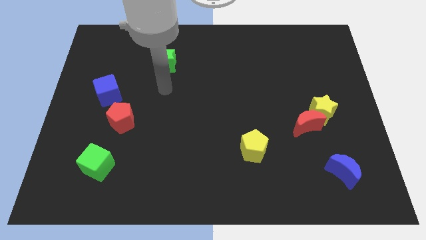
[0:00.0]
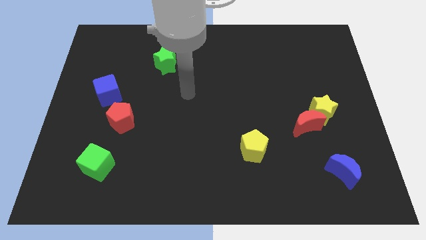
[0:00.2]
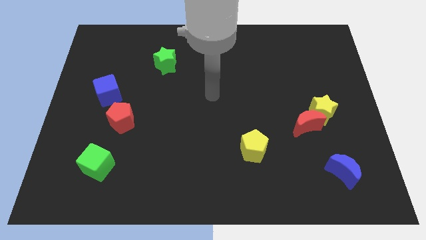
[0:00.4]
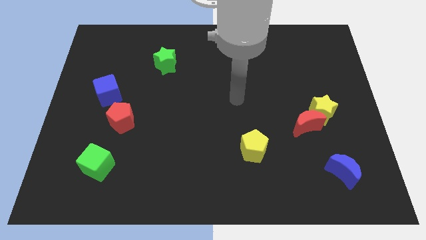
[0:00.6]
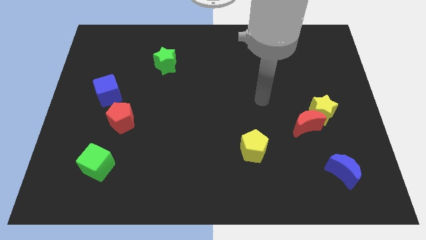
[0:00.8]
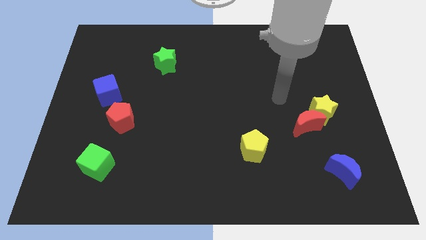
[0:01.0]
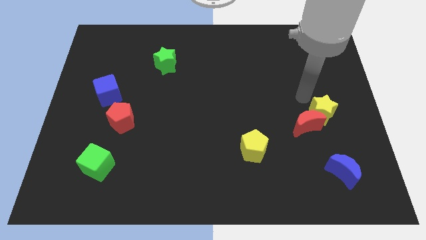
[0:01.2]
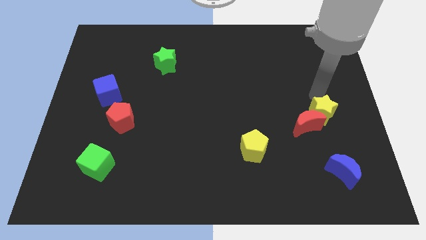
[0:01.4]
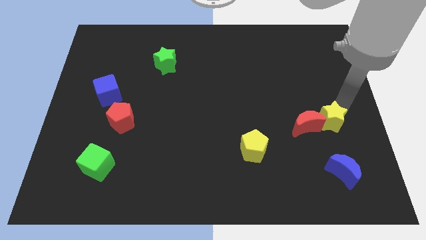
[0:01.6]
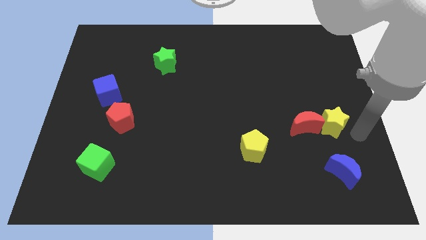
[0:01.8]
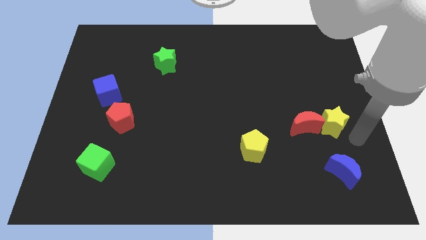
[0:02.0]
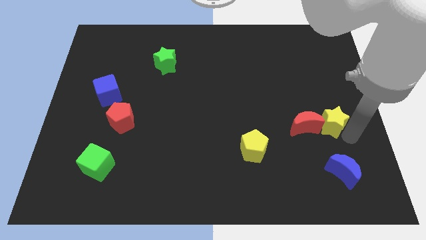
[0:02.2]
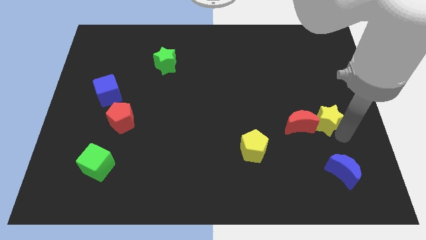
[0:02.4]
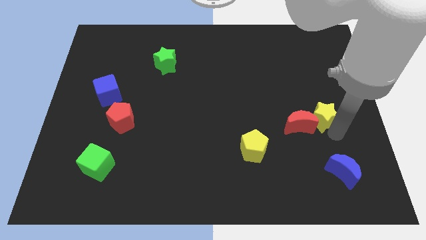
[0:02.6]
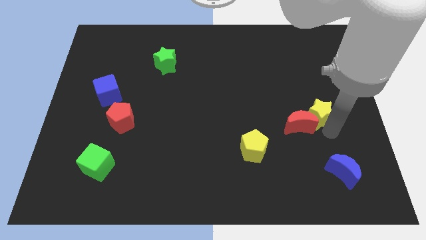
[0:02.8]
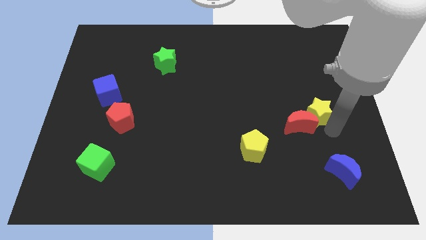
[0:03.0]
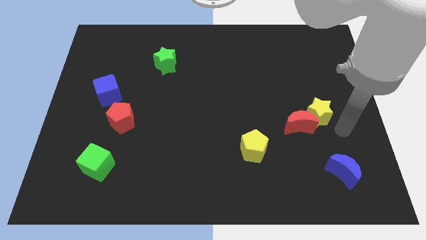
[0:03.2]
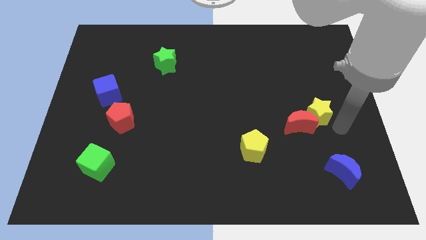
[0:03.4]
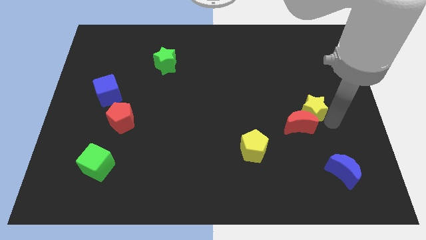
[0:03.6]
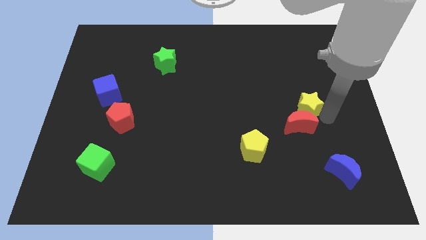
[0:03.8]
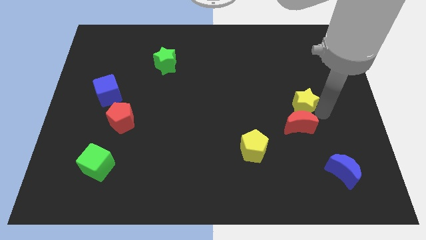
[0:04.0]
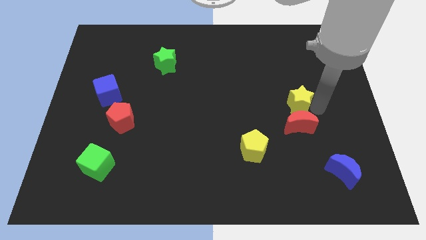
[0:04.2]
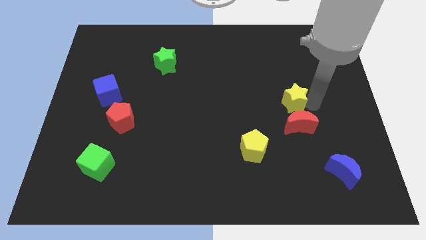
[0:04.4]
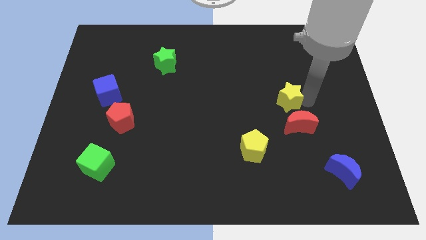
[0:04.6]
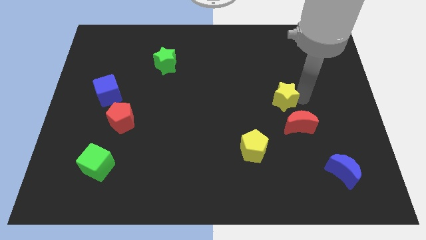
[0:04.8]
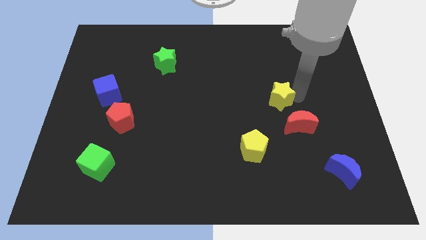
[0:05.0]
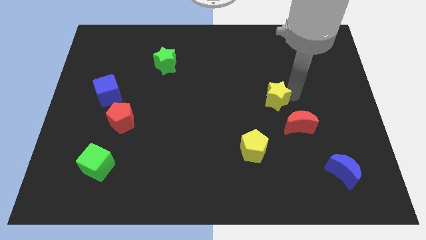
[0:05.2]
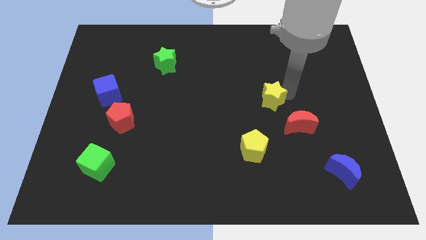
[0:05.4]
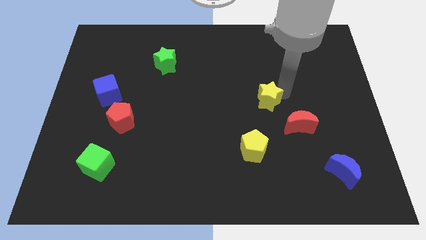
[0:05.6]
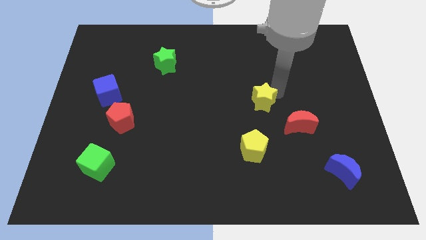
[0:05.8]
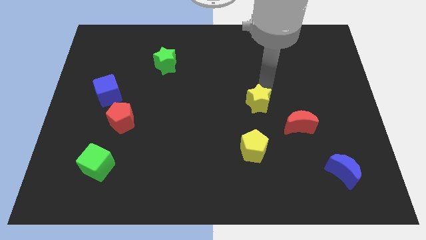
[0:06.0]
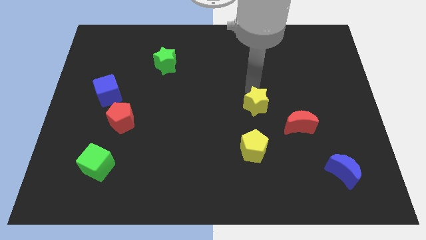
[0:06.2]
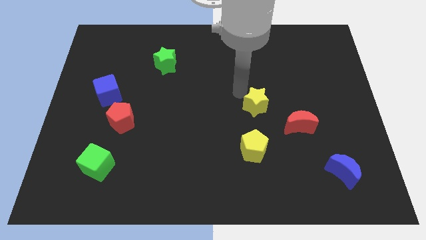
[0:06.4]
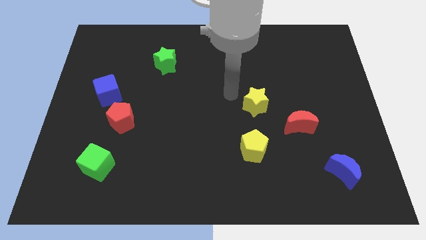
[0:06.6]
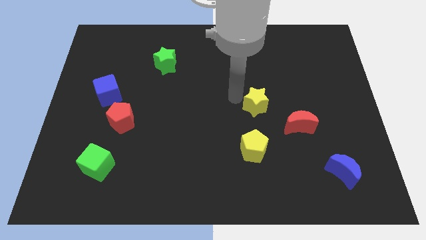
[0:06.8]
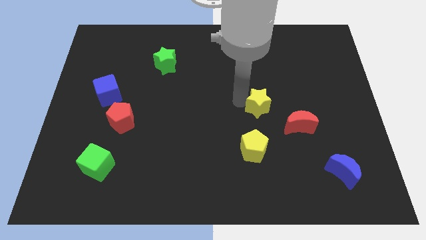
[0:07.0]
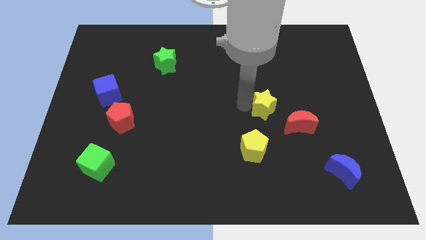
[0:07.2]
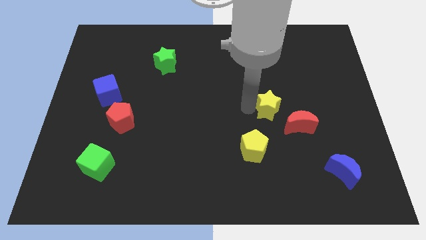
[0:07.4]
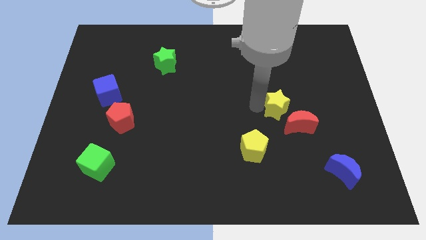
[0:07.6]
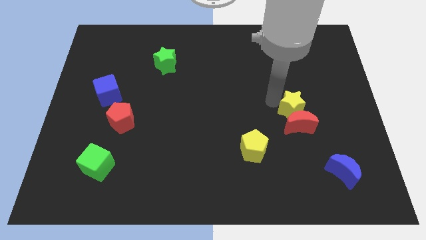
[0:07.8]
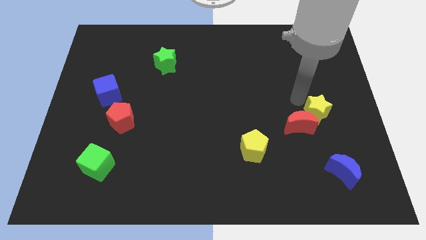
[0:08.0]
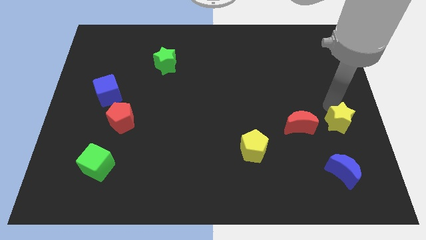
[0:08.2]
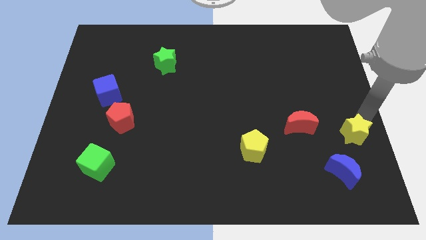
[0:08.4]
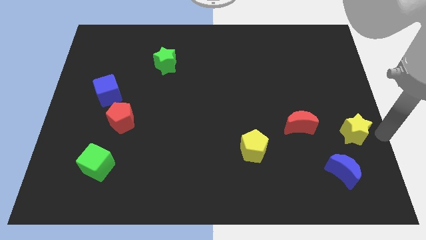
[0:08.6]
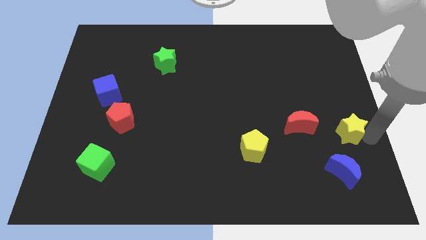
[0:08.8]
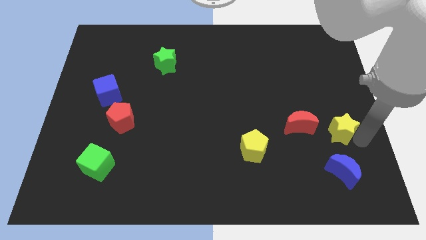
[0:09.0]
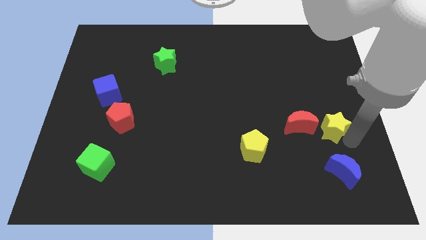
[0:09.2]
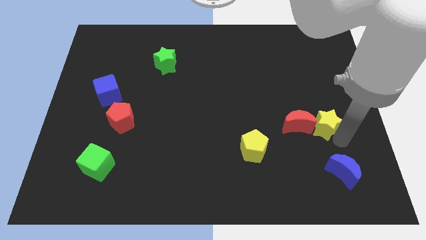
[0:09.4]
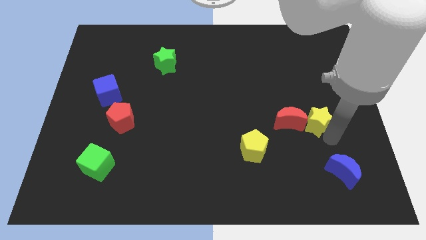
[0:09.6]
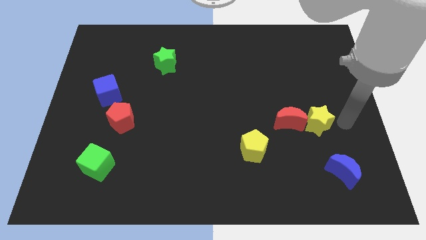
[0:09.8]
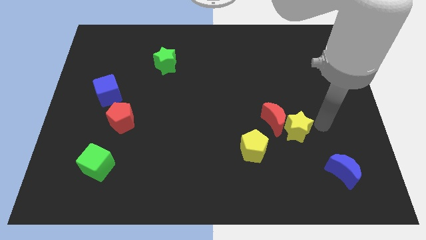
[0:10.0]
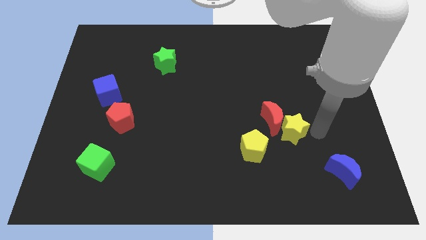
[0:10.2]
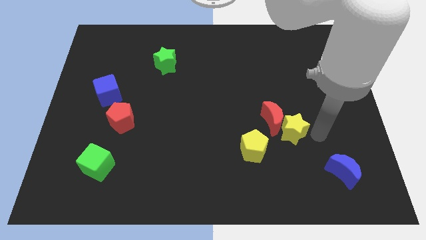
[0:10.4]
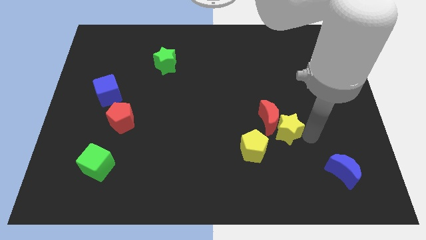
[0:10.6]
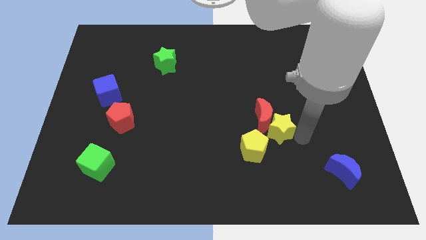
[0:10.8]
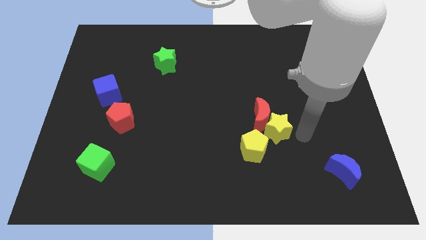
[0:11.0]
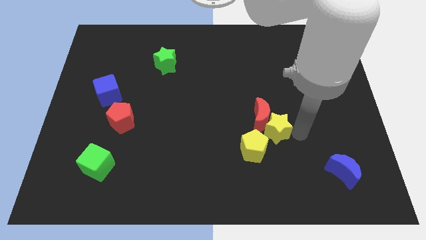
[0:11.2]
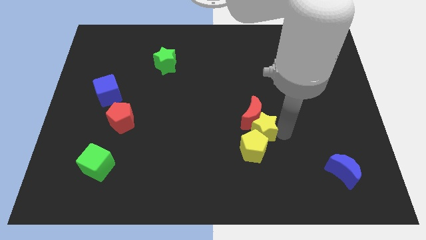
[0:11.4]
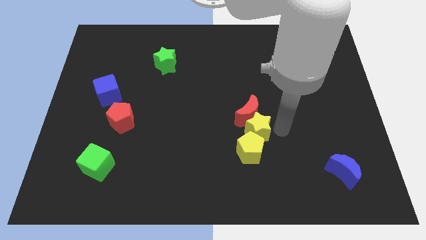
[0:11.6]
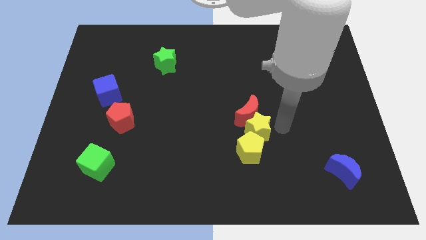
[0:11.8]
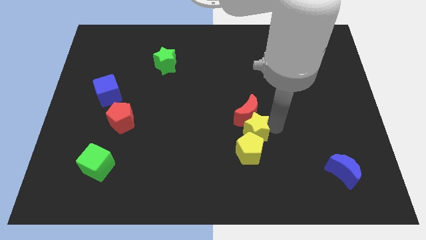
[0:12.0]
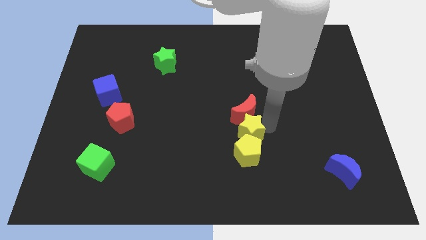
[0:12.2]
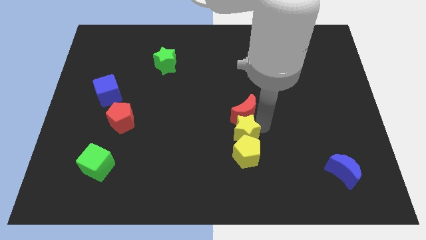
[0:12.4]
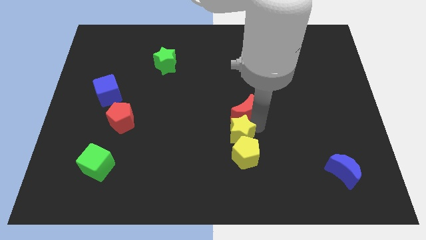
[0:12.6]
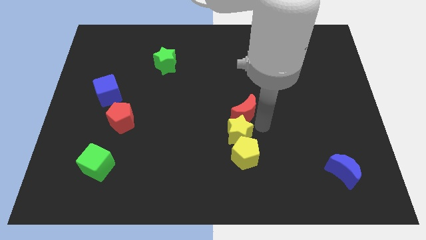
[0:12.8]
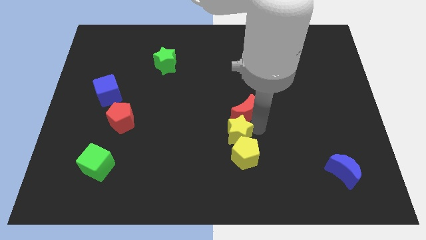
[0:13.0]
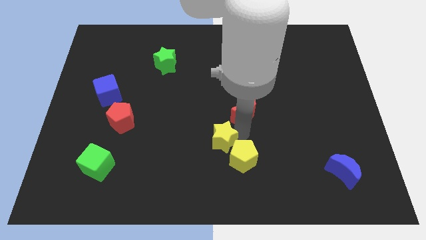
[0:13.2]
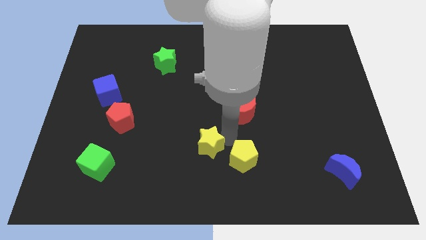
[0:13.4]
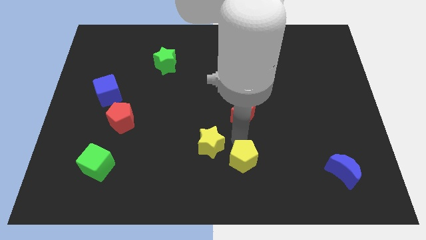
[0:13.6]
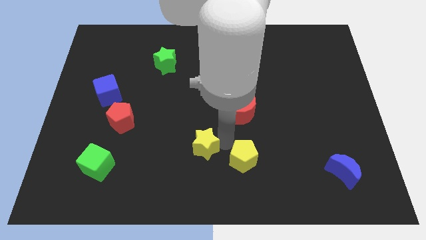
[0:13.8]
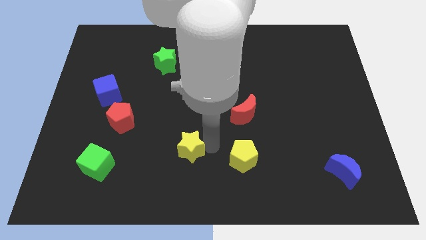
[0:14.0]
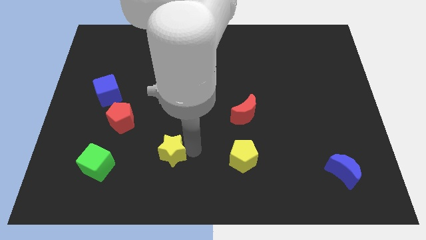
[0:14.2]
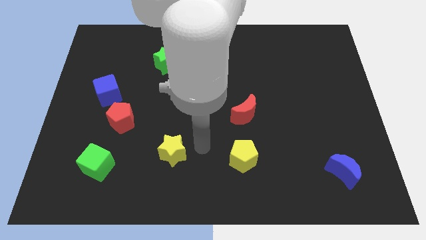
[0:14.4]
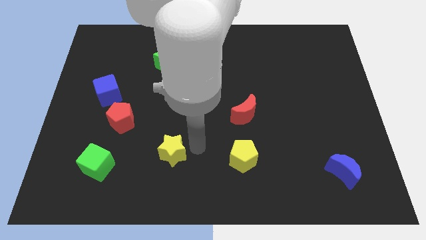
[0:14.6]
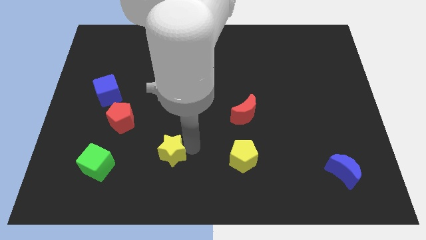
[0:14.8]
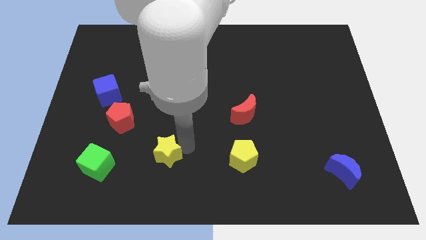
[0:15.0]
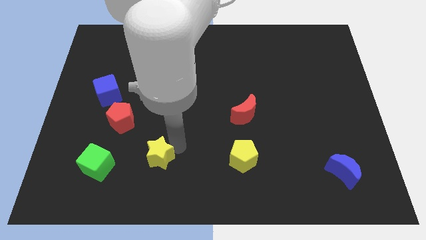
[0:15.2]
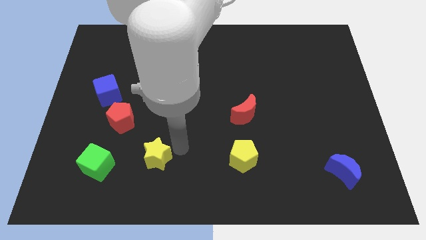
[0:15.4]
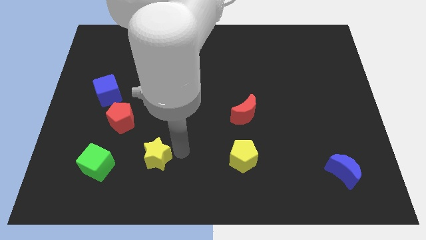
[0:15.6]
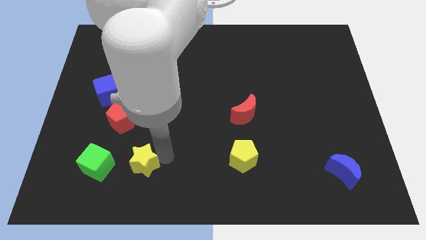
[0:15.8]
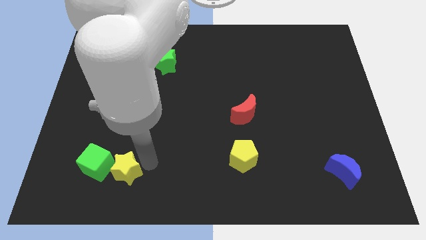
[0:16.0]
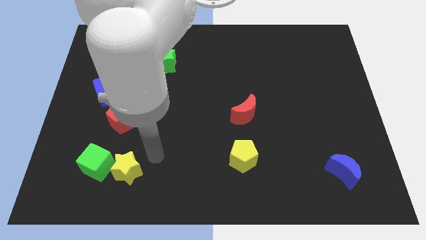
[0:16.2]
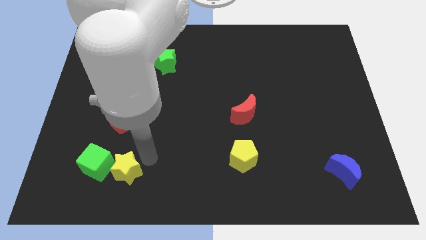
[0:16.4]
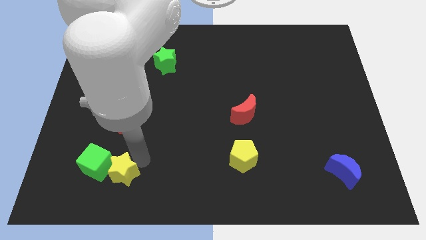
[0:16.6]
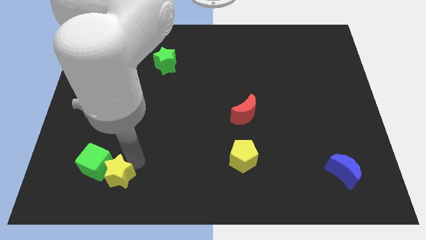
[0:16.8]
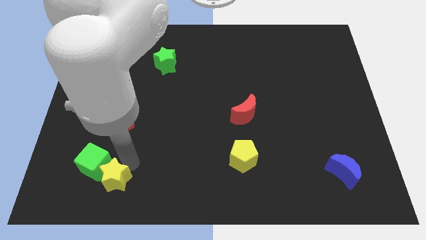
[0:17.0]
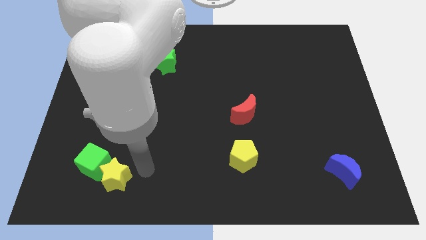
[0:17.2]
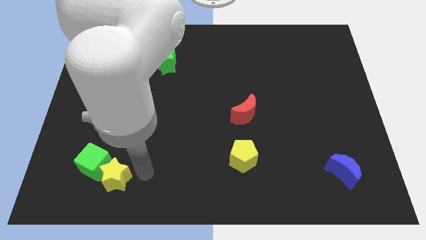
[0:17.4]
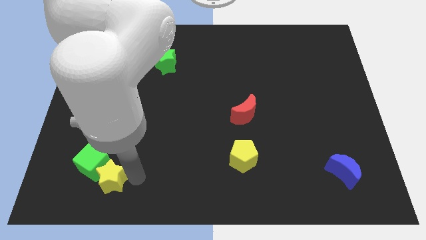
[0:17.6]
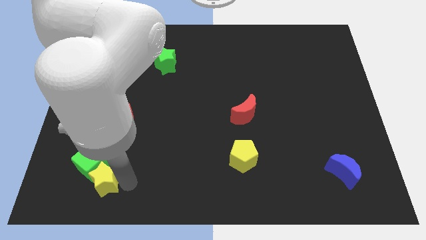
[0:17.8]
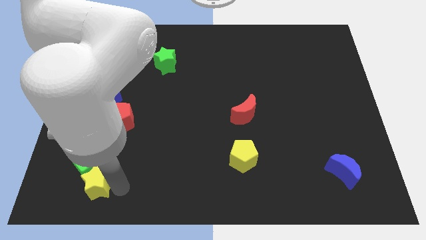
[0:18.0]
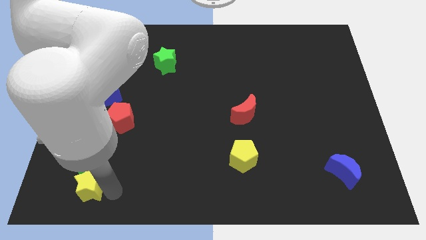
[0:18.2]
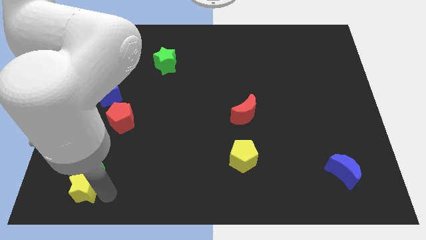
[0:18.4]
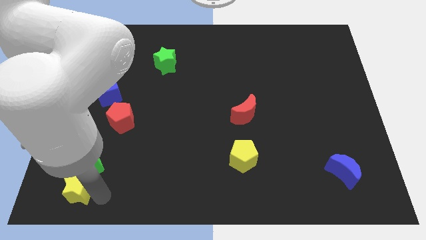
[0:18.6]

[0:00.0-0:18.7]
move the yellow star to the bottom left of the board
